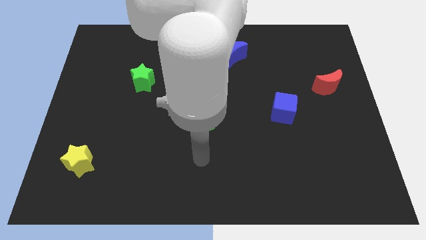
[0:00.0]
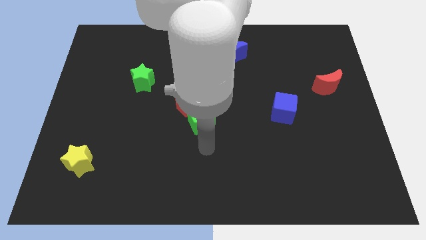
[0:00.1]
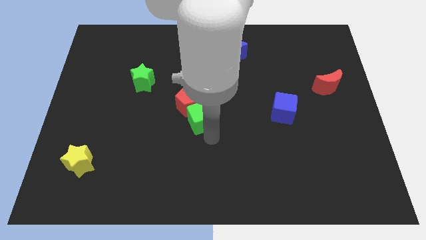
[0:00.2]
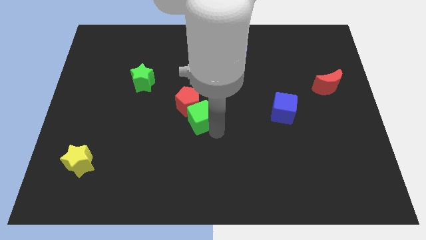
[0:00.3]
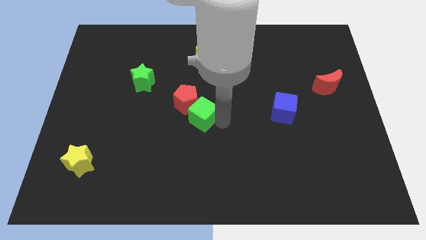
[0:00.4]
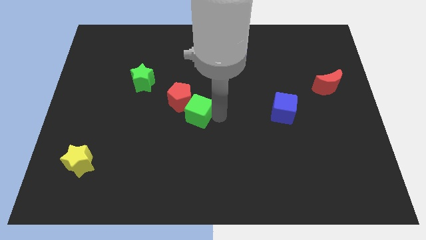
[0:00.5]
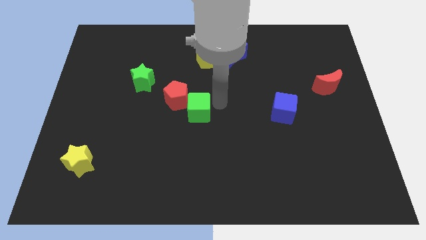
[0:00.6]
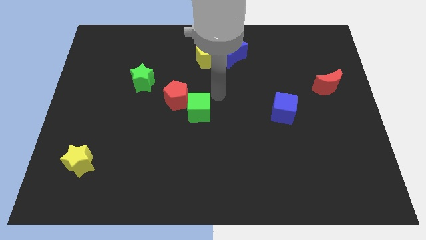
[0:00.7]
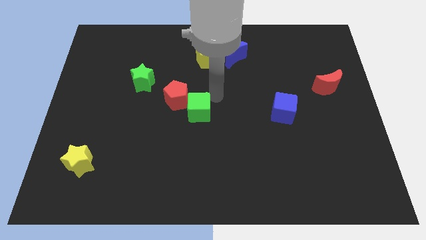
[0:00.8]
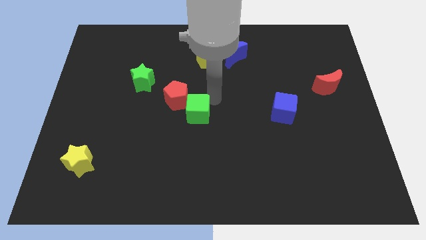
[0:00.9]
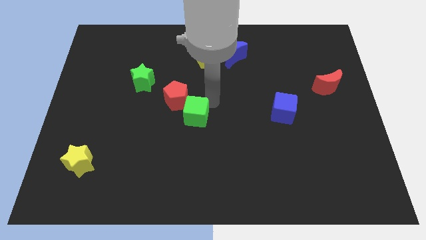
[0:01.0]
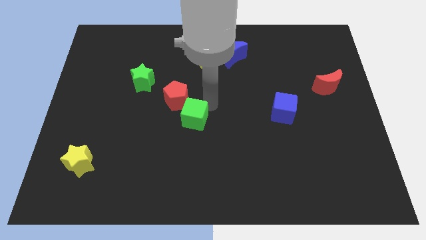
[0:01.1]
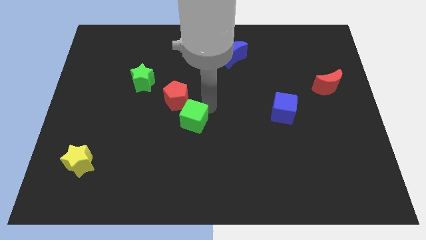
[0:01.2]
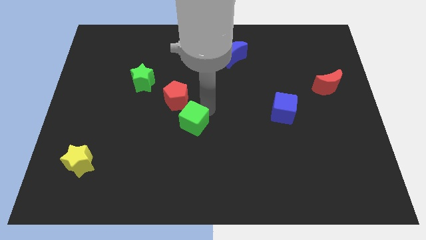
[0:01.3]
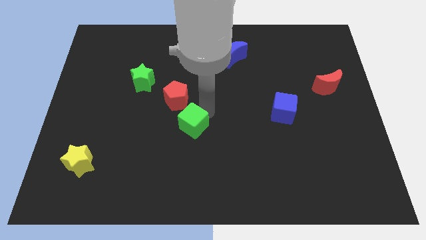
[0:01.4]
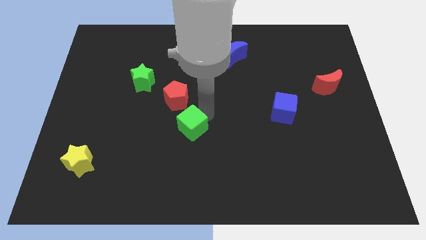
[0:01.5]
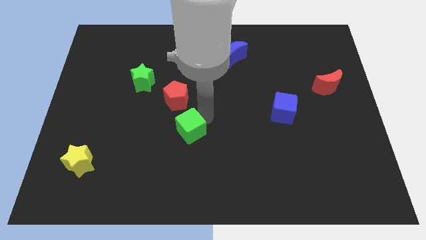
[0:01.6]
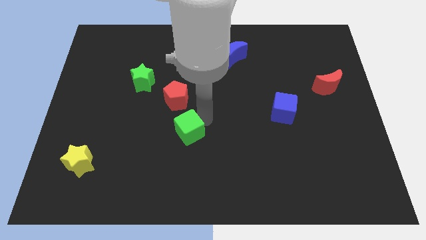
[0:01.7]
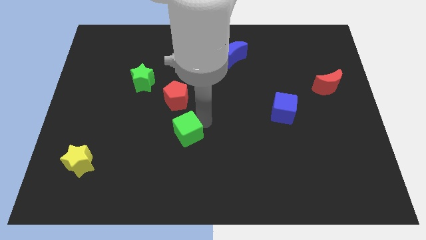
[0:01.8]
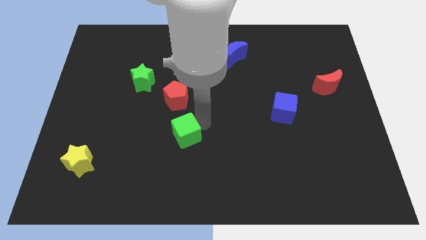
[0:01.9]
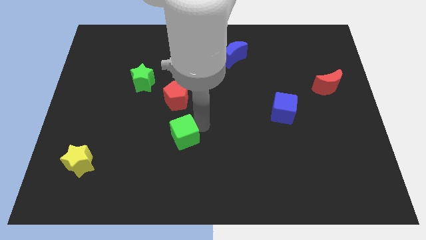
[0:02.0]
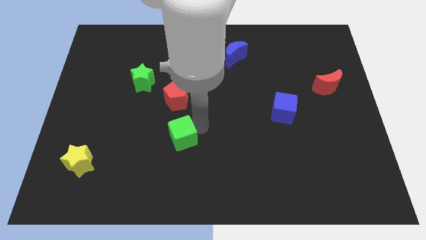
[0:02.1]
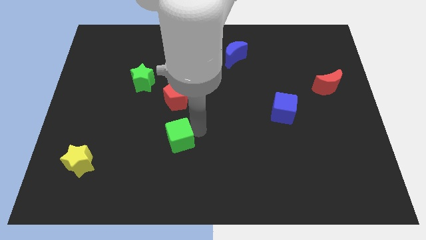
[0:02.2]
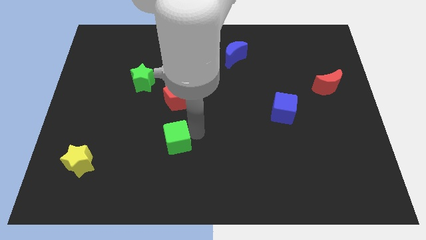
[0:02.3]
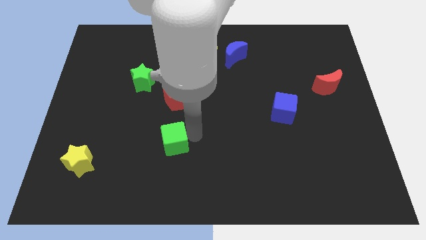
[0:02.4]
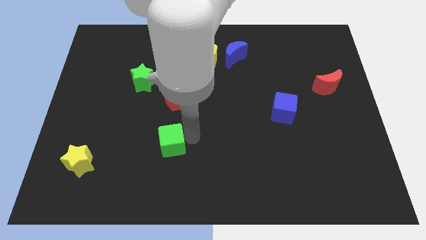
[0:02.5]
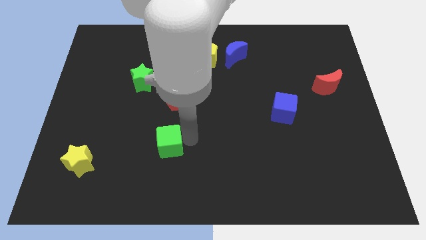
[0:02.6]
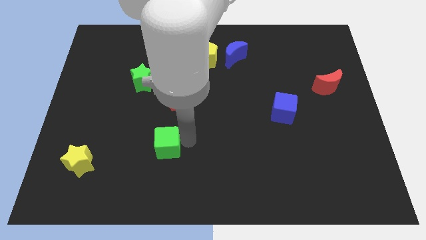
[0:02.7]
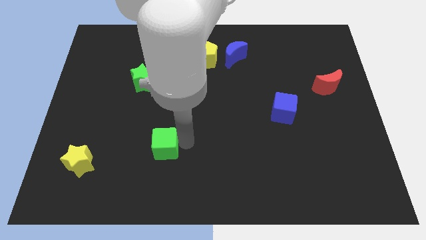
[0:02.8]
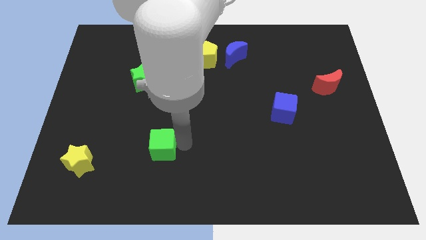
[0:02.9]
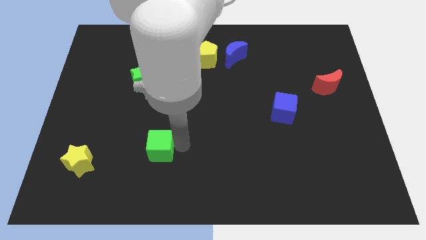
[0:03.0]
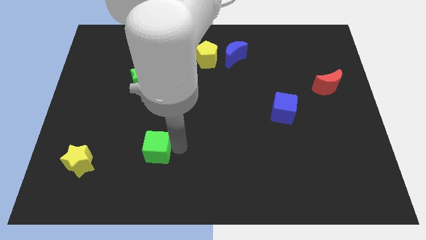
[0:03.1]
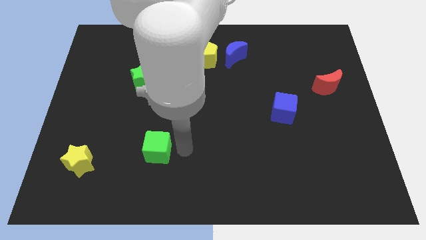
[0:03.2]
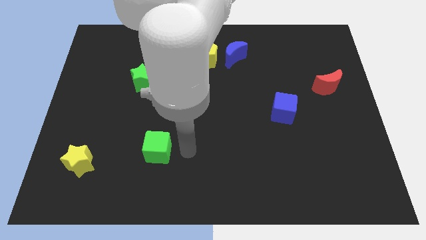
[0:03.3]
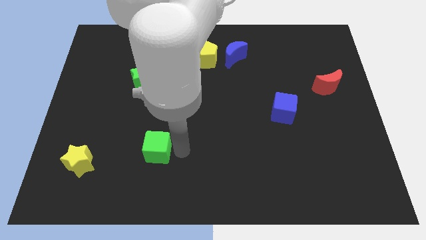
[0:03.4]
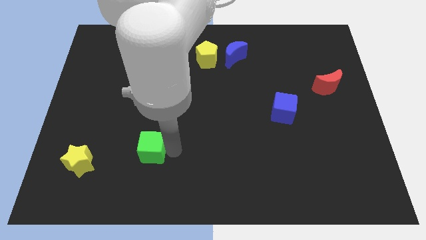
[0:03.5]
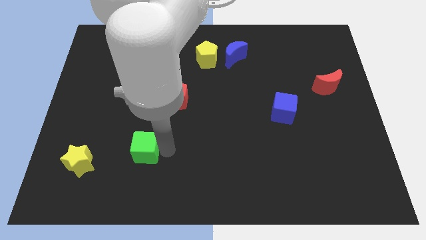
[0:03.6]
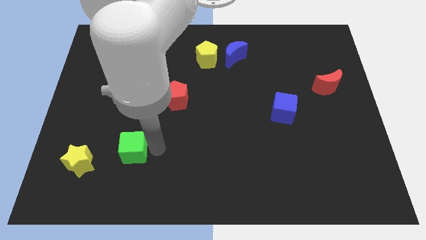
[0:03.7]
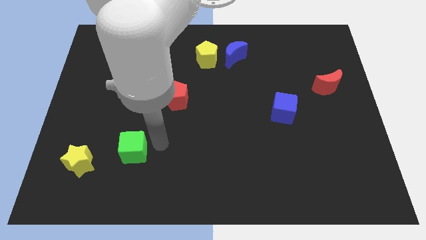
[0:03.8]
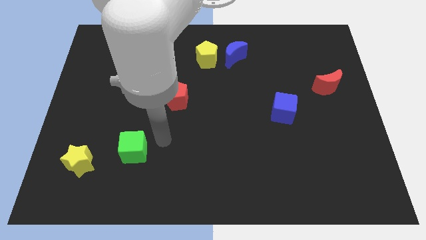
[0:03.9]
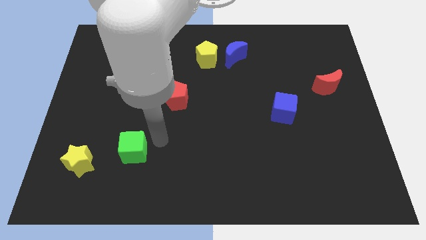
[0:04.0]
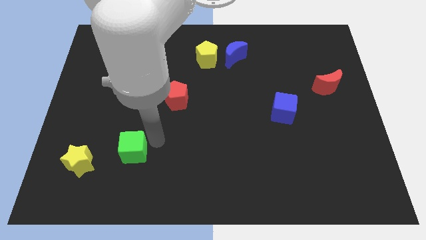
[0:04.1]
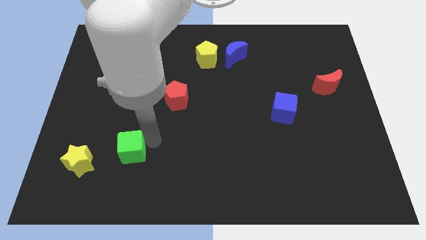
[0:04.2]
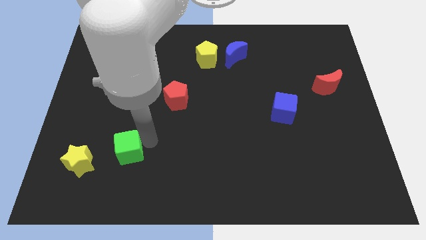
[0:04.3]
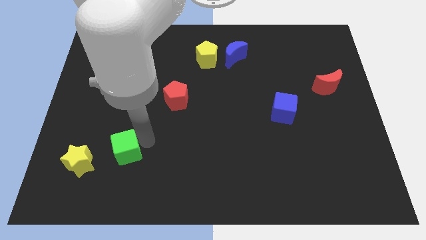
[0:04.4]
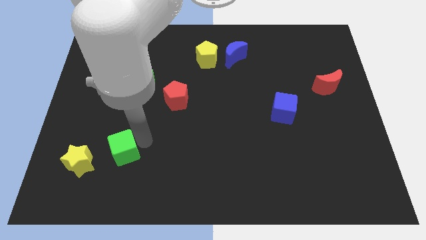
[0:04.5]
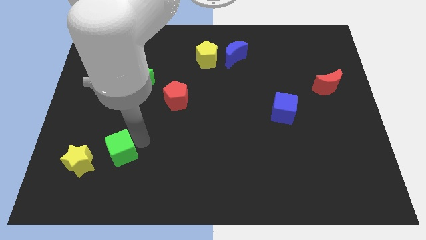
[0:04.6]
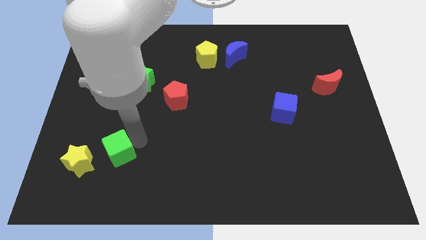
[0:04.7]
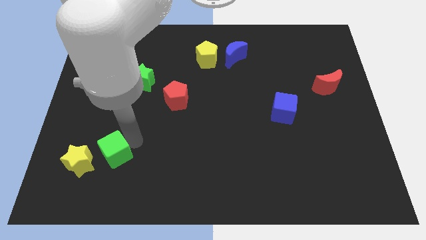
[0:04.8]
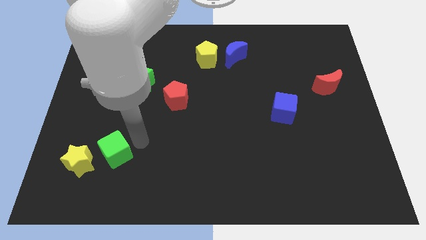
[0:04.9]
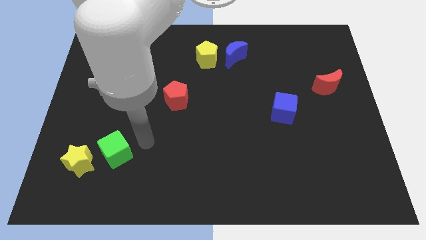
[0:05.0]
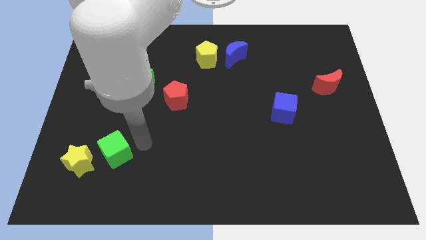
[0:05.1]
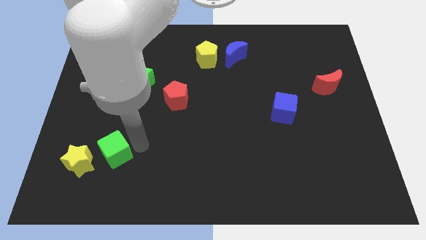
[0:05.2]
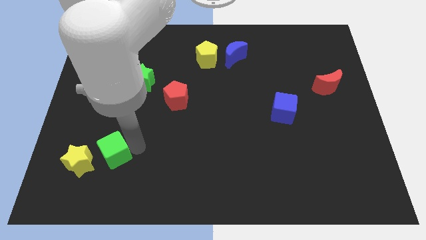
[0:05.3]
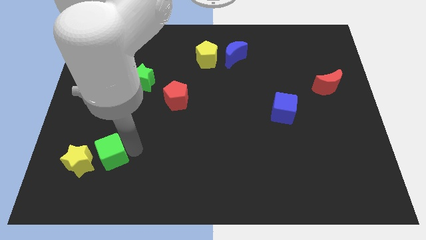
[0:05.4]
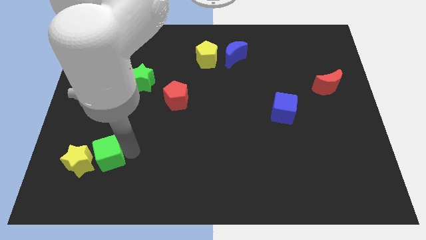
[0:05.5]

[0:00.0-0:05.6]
push the green cube towards the yellow star

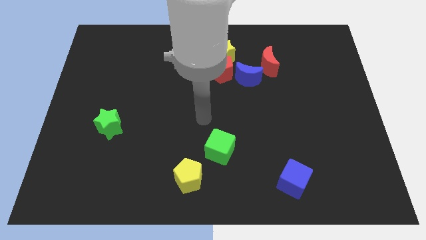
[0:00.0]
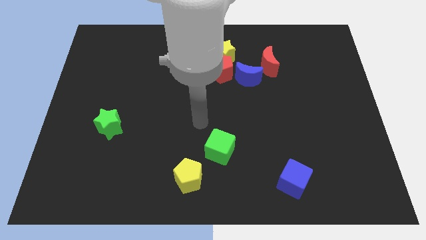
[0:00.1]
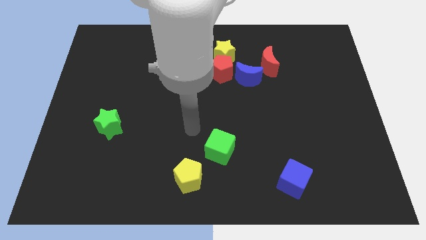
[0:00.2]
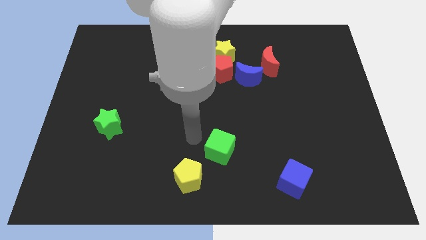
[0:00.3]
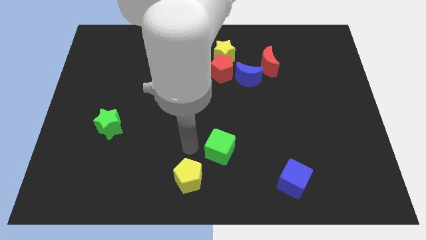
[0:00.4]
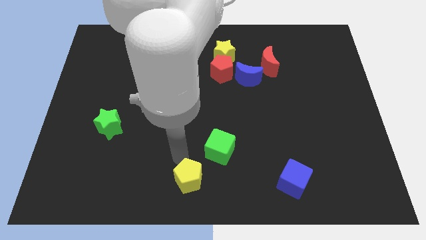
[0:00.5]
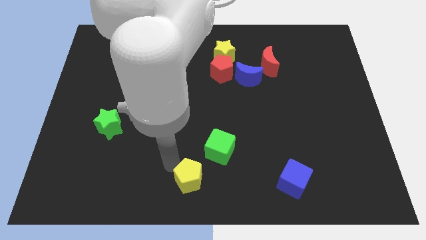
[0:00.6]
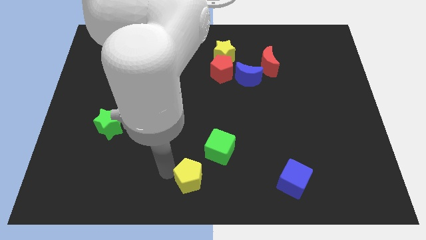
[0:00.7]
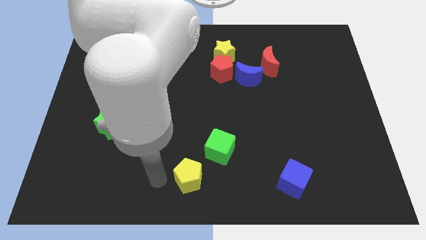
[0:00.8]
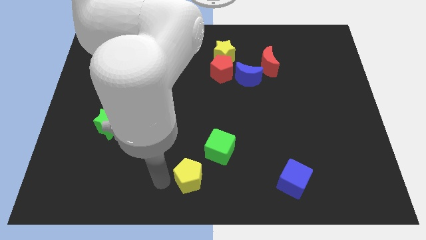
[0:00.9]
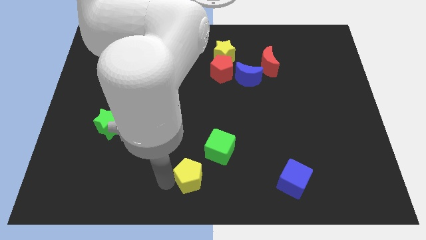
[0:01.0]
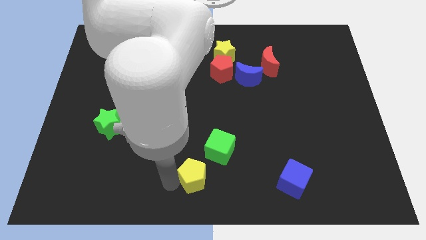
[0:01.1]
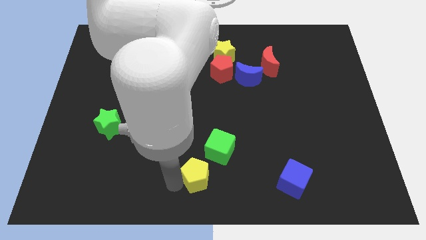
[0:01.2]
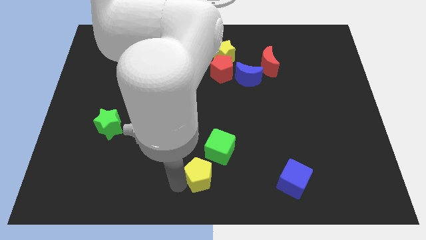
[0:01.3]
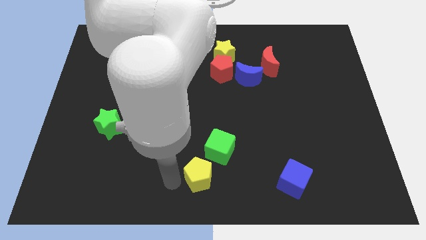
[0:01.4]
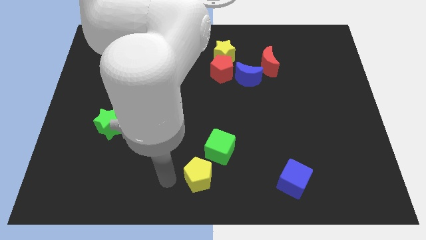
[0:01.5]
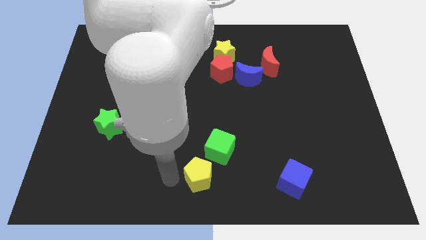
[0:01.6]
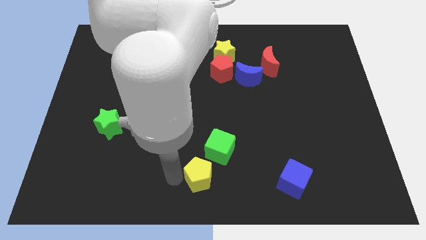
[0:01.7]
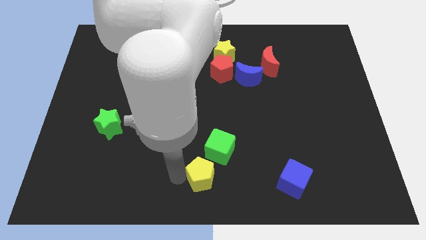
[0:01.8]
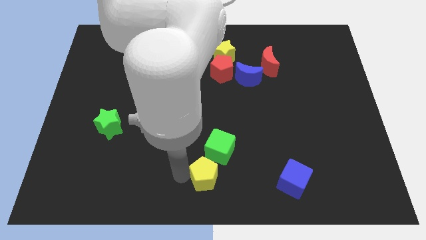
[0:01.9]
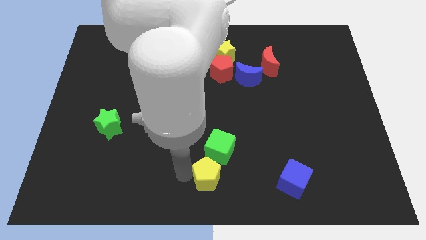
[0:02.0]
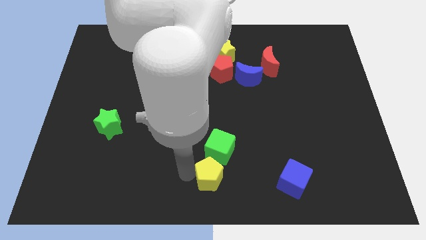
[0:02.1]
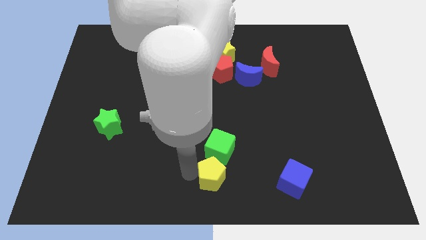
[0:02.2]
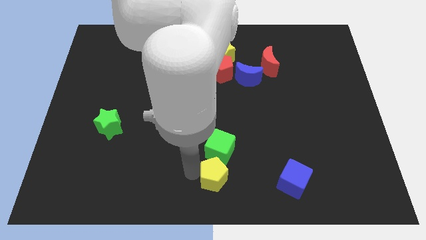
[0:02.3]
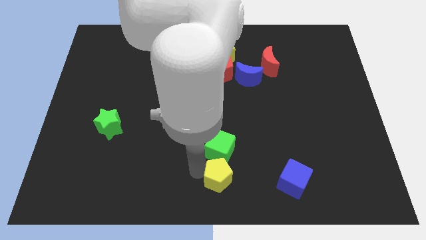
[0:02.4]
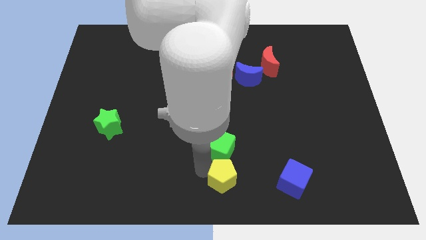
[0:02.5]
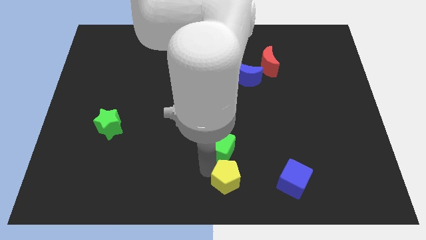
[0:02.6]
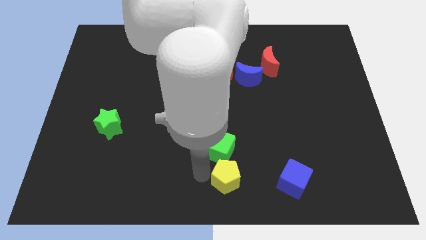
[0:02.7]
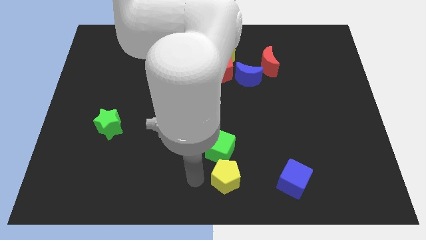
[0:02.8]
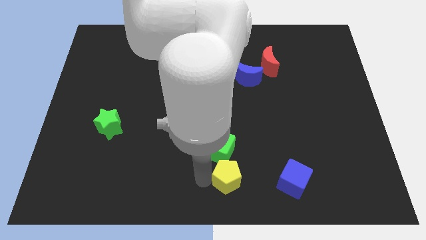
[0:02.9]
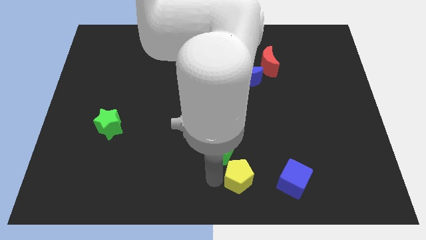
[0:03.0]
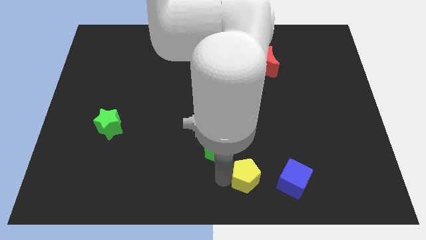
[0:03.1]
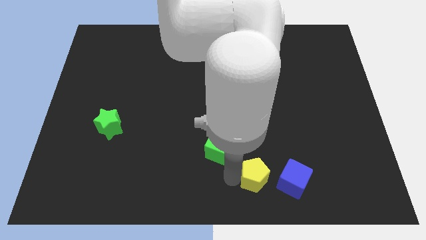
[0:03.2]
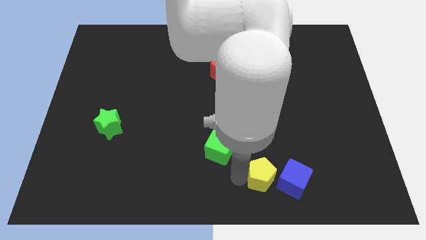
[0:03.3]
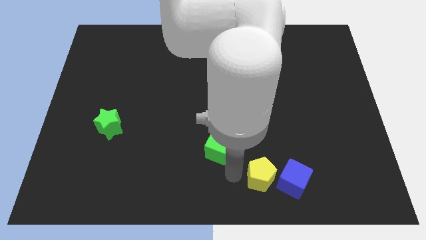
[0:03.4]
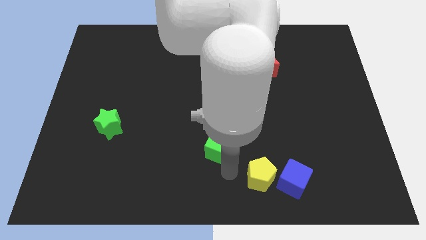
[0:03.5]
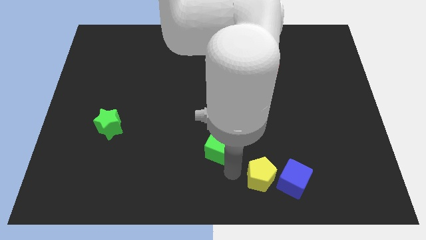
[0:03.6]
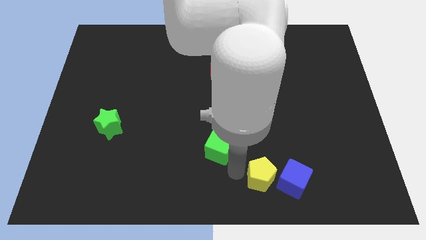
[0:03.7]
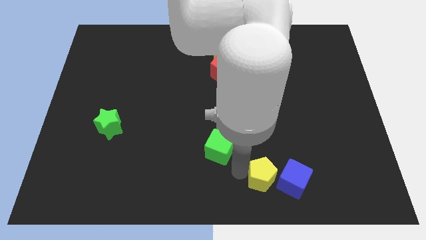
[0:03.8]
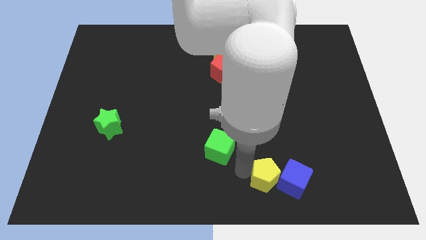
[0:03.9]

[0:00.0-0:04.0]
move the yellow pentagon close to the blue cube
